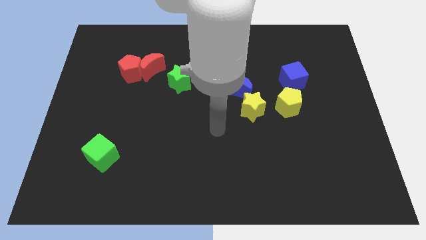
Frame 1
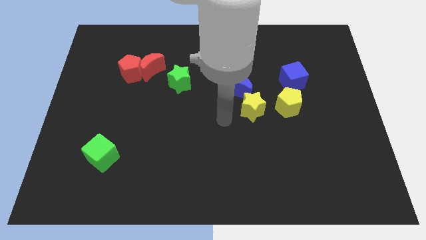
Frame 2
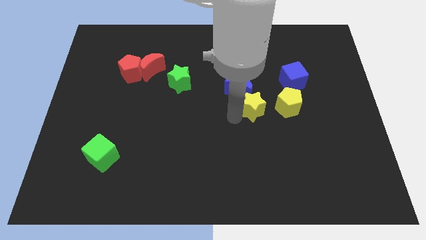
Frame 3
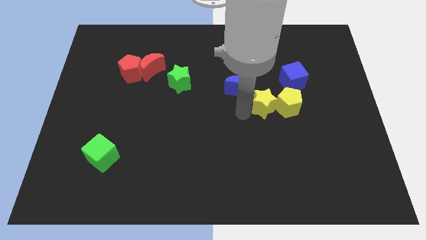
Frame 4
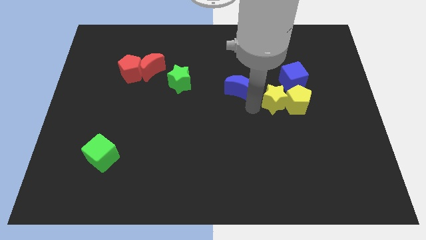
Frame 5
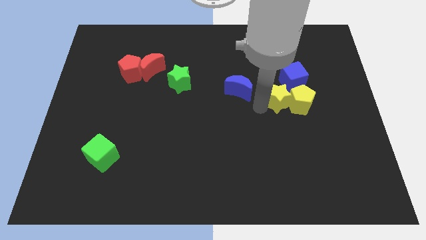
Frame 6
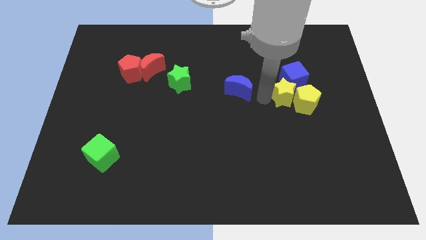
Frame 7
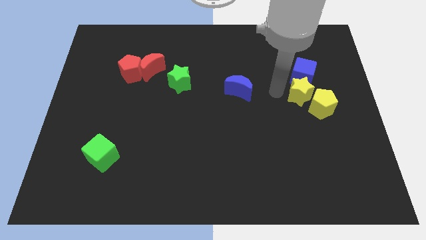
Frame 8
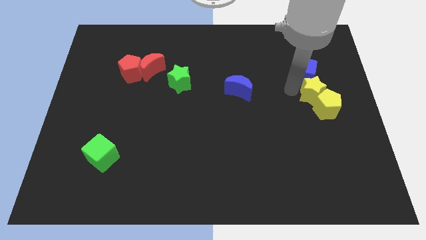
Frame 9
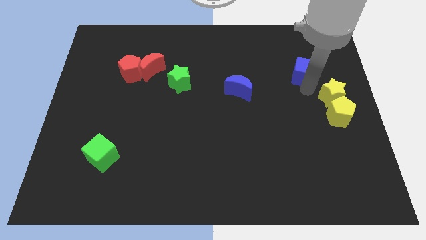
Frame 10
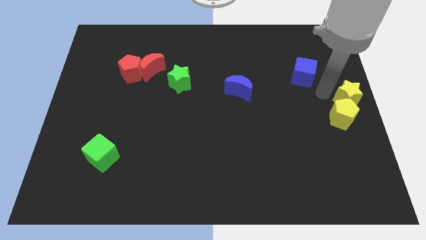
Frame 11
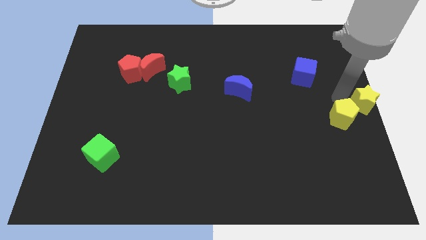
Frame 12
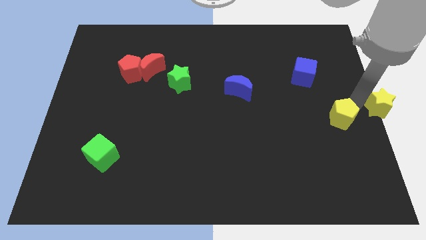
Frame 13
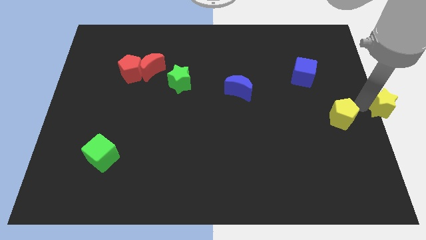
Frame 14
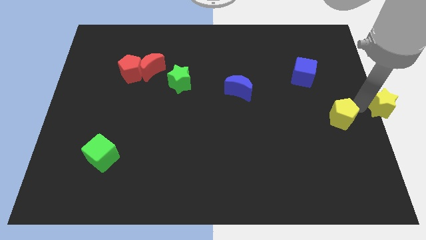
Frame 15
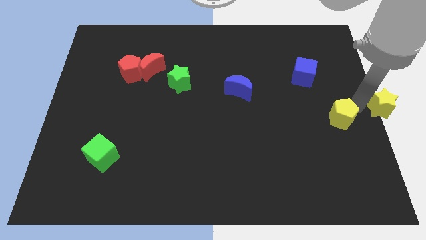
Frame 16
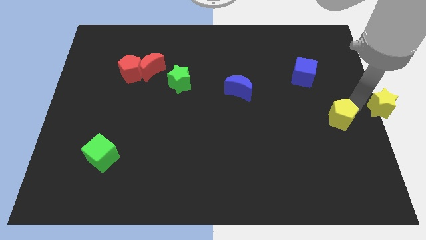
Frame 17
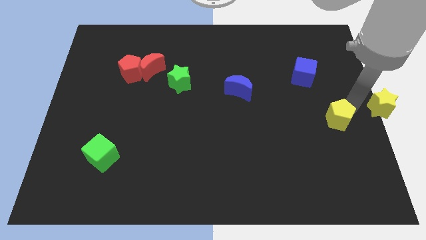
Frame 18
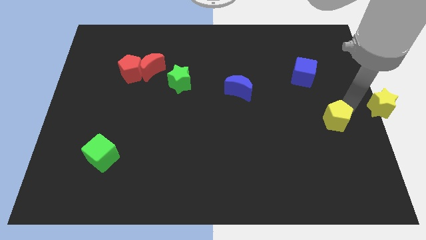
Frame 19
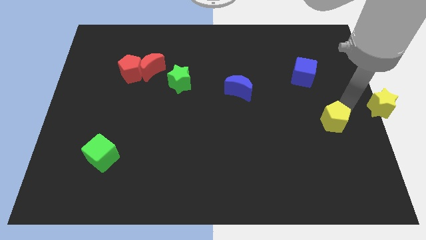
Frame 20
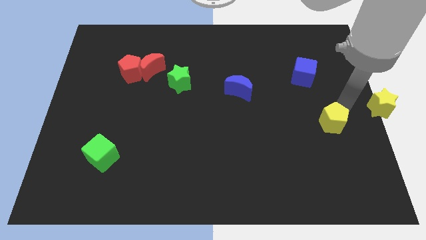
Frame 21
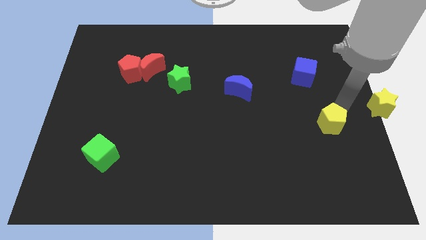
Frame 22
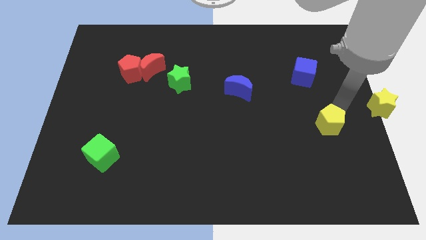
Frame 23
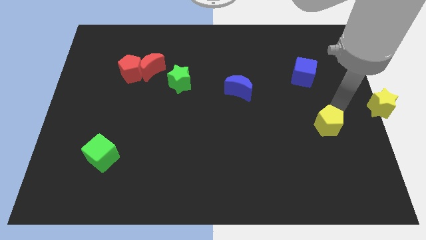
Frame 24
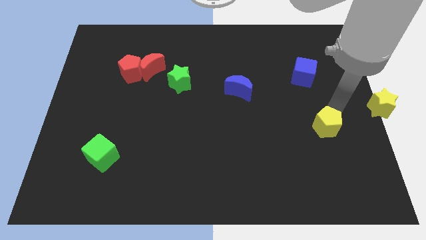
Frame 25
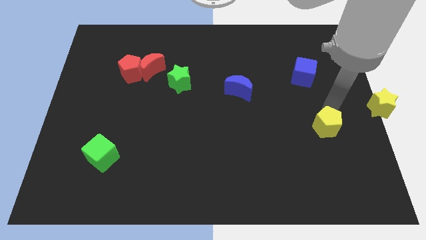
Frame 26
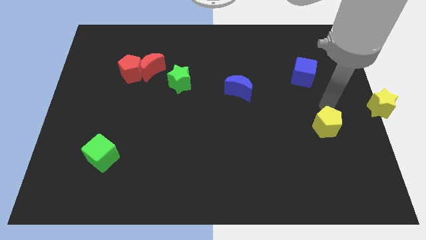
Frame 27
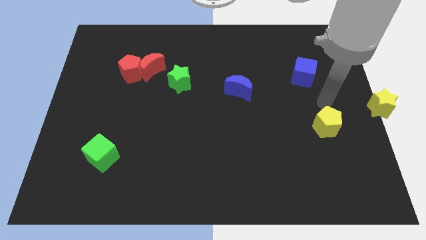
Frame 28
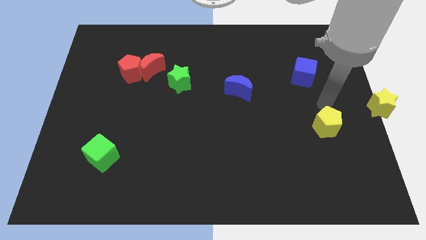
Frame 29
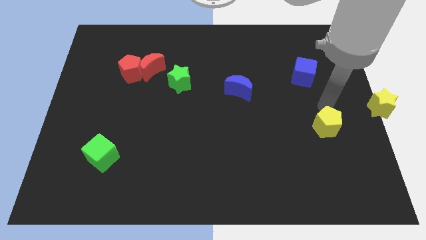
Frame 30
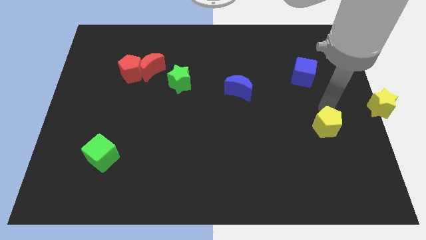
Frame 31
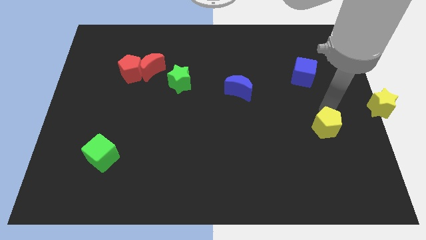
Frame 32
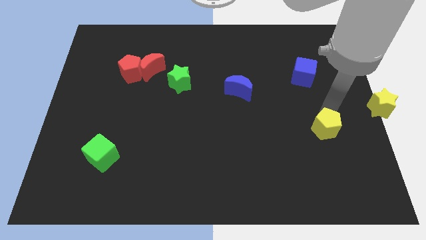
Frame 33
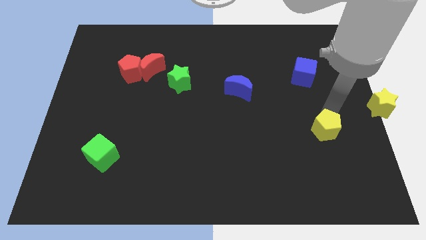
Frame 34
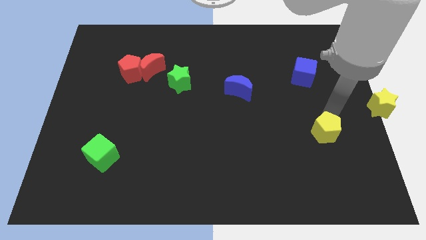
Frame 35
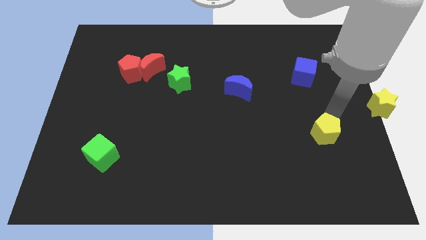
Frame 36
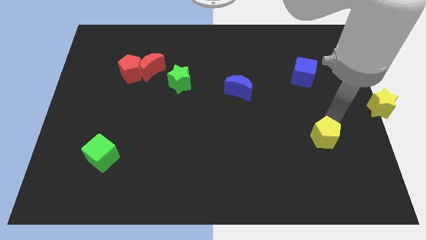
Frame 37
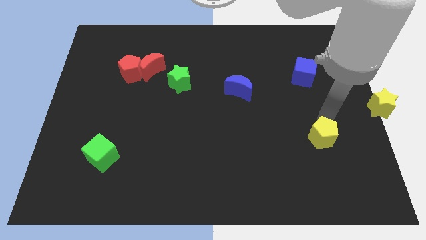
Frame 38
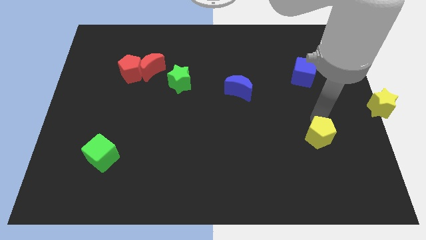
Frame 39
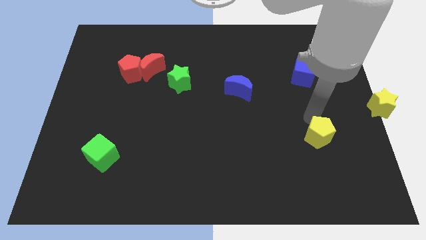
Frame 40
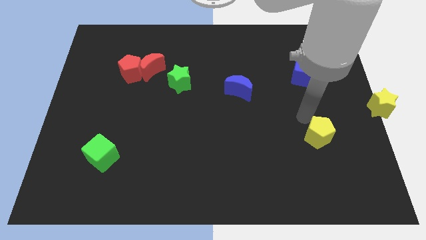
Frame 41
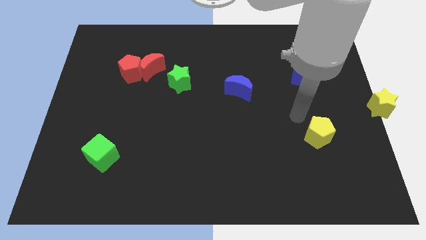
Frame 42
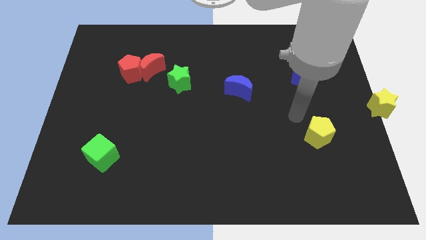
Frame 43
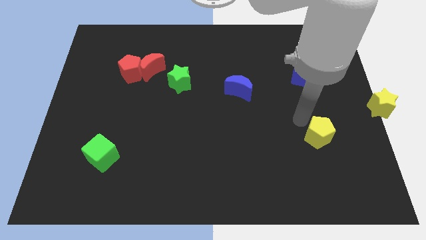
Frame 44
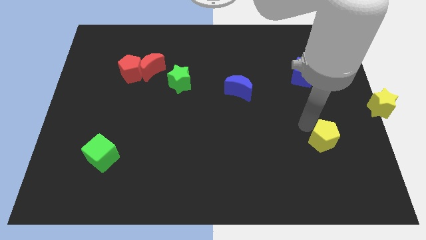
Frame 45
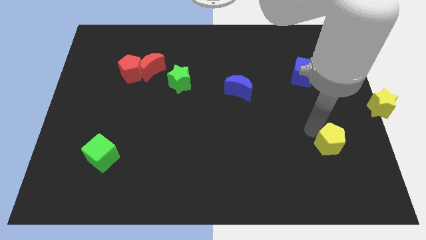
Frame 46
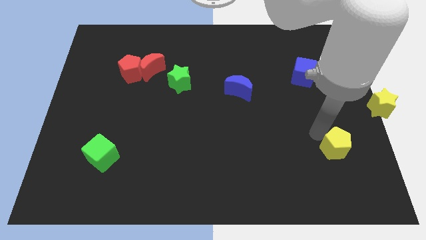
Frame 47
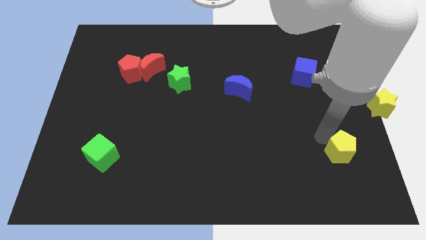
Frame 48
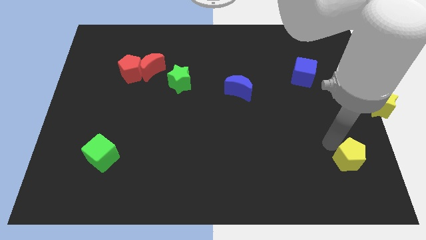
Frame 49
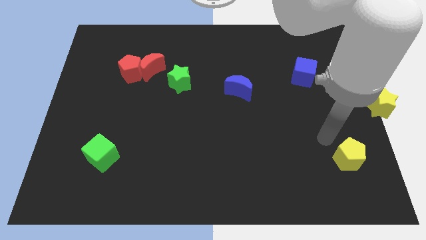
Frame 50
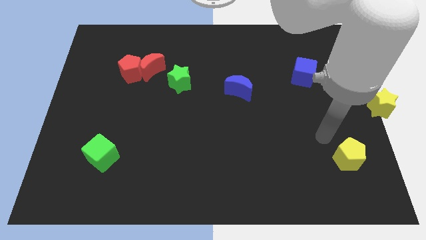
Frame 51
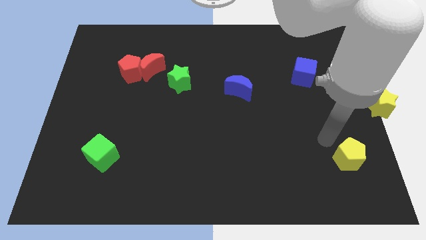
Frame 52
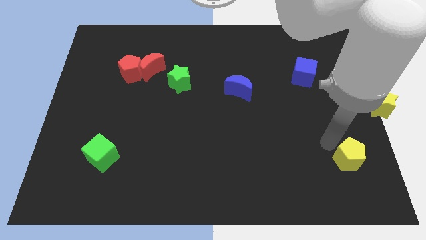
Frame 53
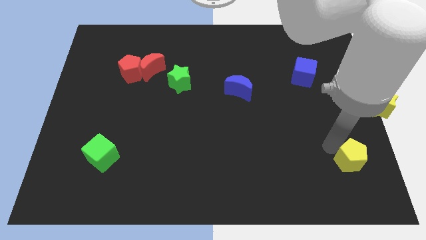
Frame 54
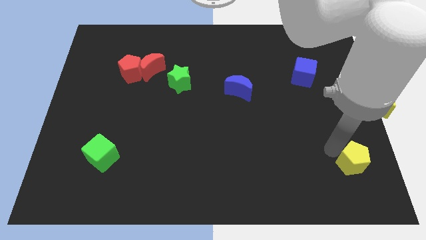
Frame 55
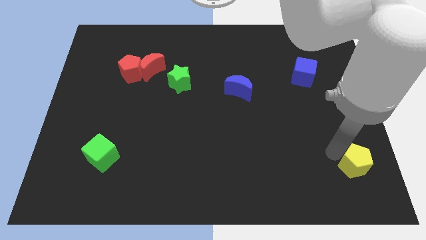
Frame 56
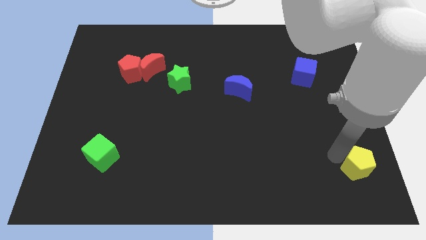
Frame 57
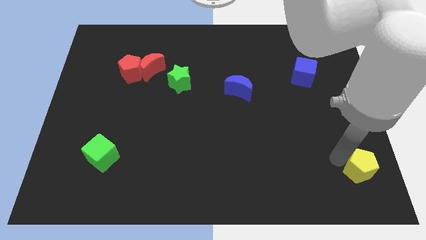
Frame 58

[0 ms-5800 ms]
move the yellow pentagon to the bottom right

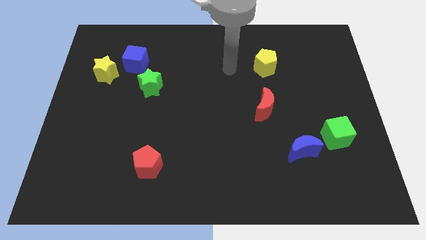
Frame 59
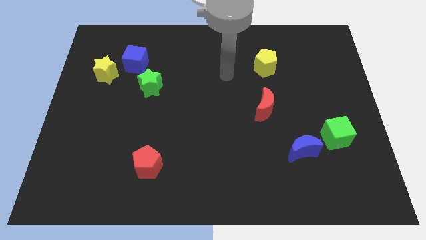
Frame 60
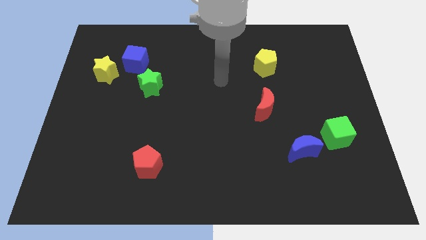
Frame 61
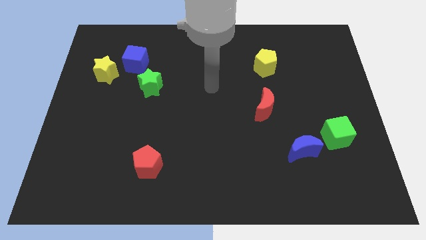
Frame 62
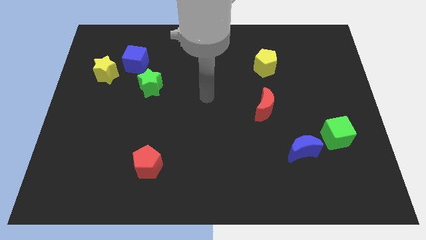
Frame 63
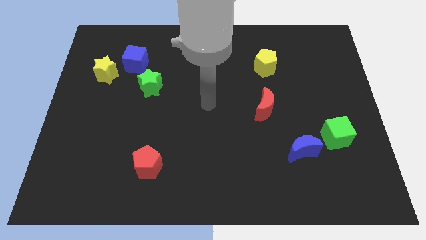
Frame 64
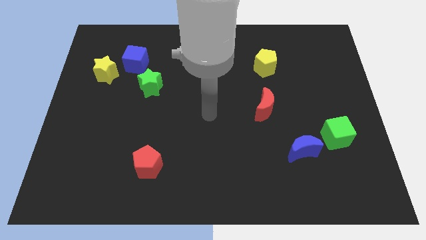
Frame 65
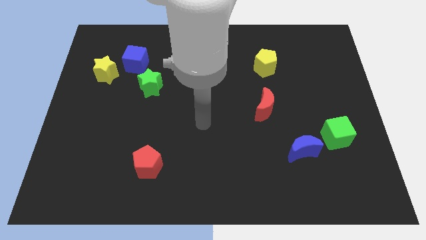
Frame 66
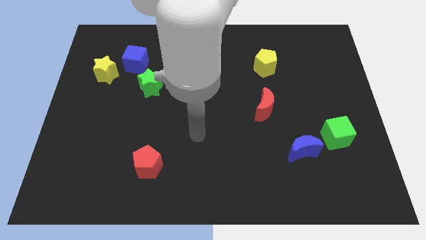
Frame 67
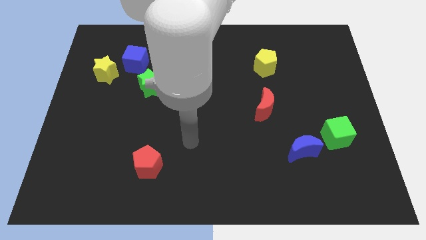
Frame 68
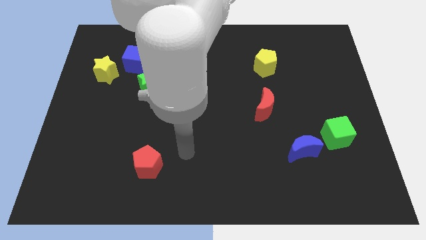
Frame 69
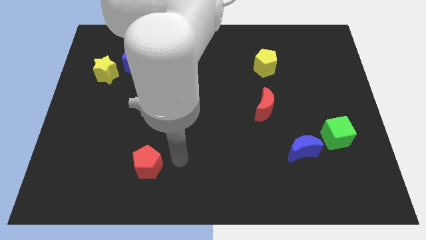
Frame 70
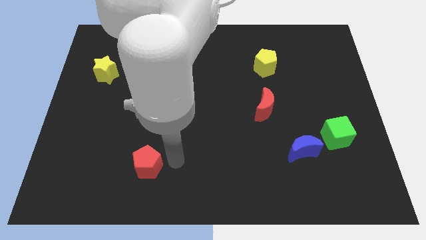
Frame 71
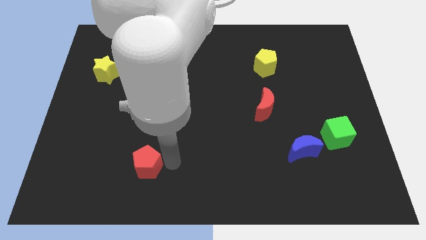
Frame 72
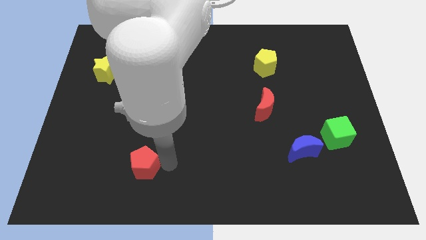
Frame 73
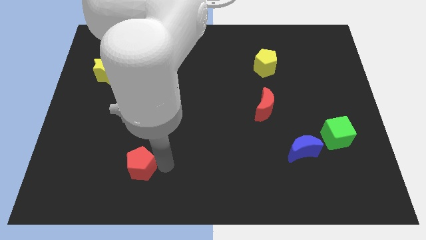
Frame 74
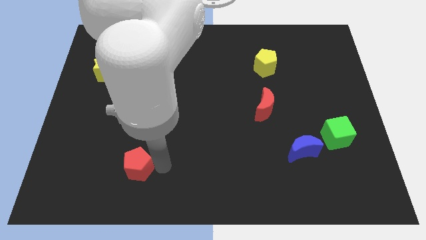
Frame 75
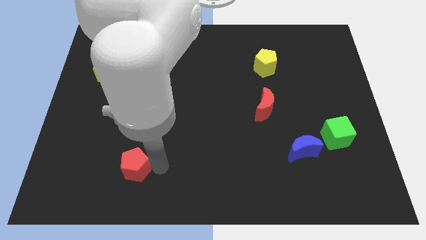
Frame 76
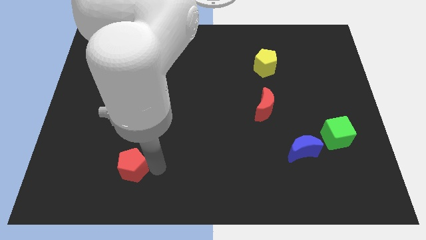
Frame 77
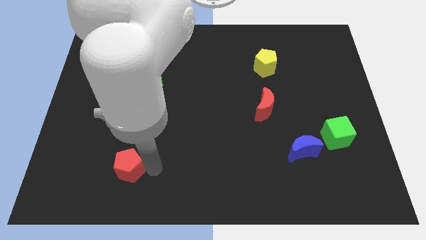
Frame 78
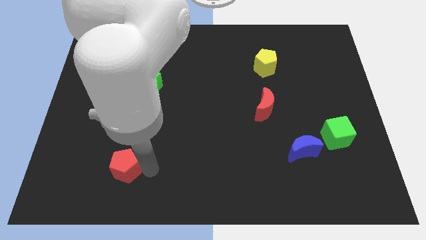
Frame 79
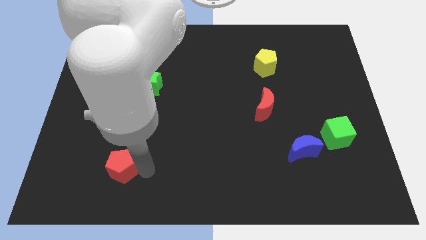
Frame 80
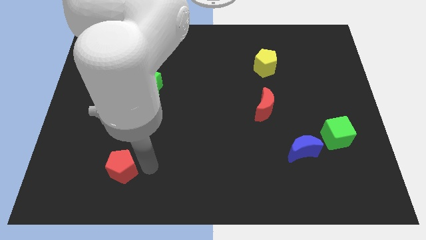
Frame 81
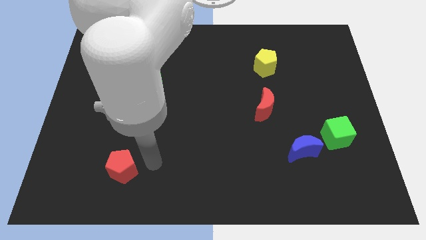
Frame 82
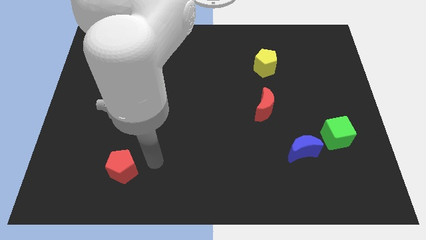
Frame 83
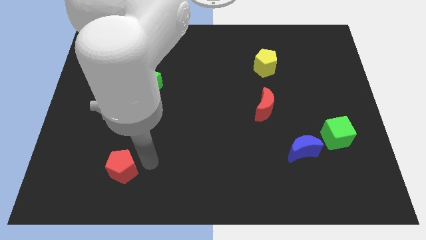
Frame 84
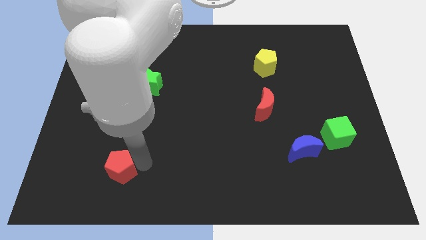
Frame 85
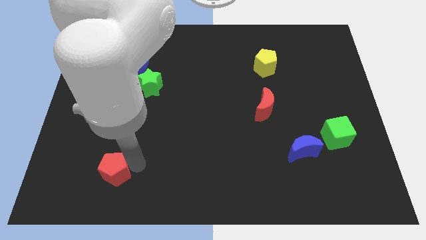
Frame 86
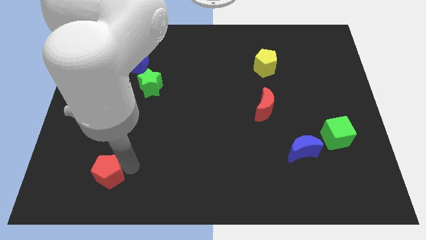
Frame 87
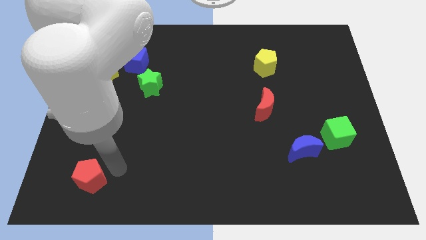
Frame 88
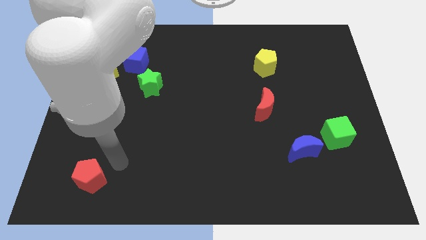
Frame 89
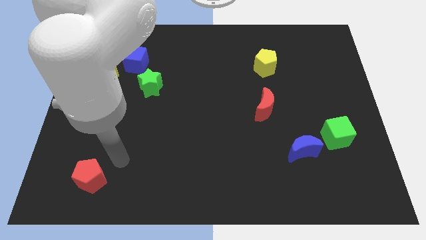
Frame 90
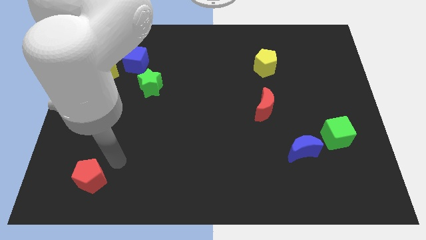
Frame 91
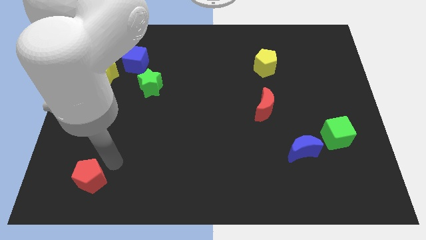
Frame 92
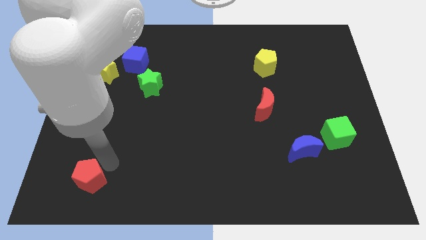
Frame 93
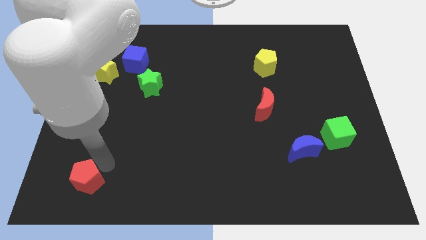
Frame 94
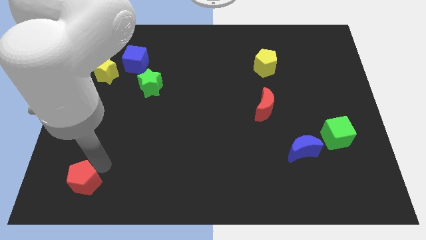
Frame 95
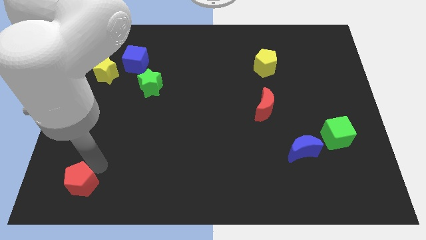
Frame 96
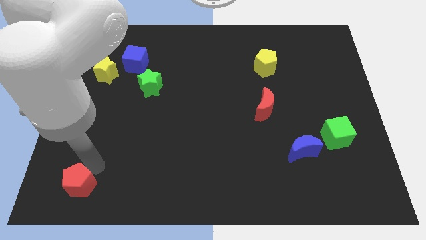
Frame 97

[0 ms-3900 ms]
slide the red pentagon to the bottom left corner
